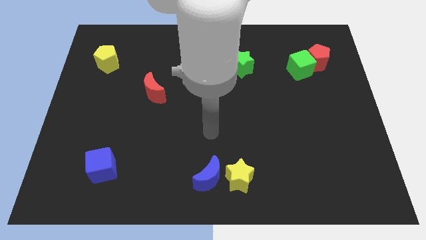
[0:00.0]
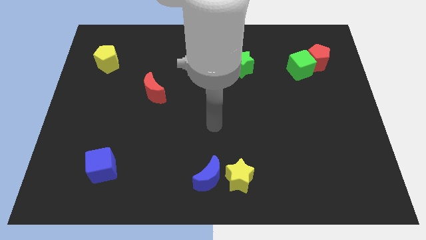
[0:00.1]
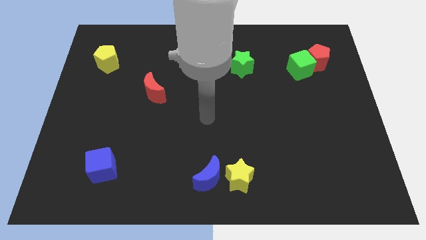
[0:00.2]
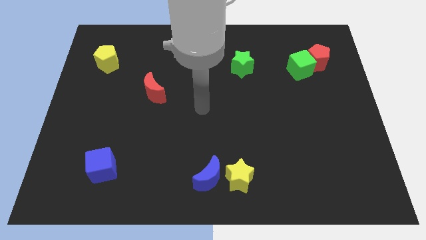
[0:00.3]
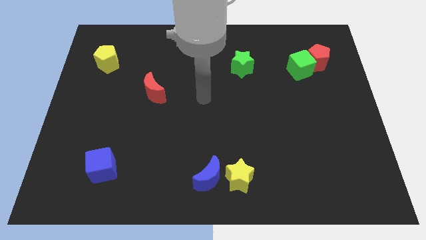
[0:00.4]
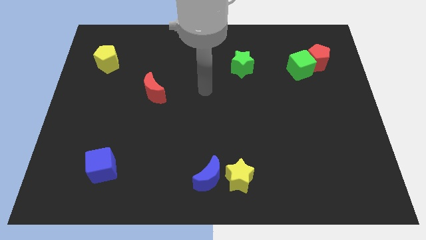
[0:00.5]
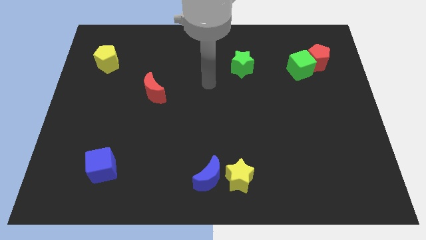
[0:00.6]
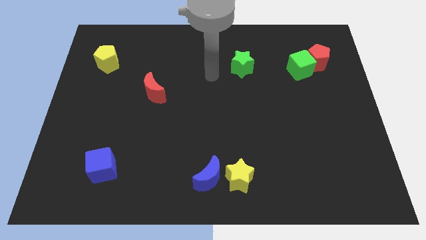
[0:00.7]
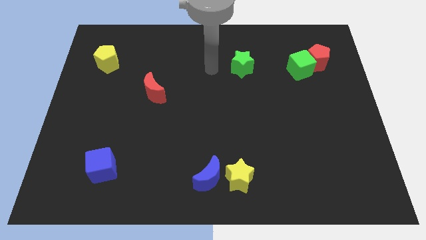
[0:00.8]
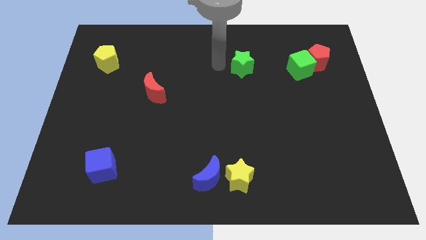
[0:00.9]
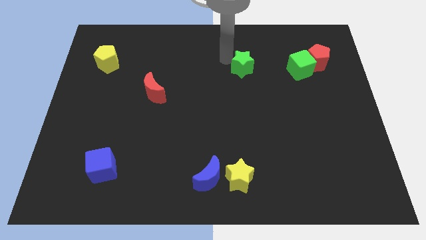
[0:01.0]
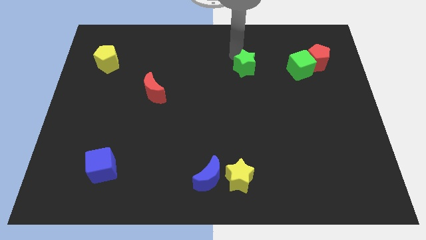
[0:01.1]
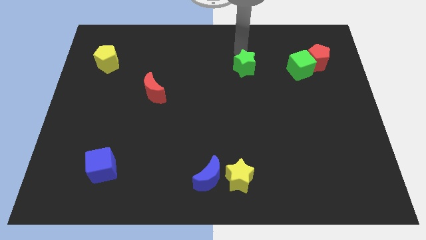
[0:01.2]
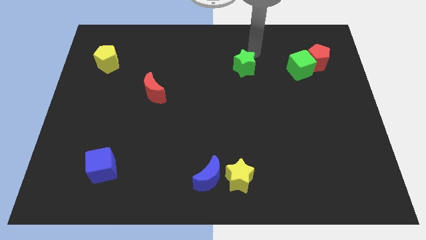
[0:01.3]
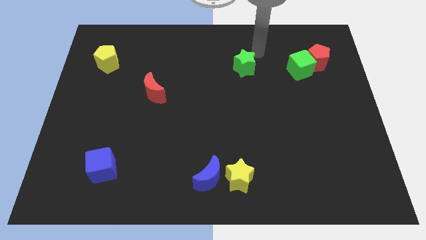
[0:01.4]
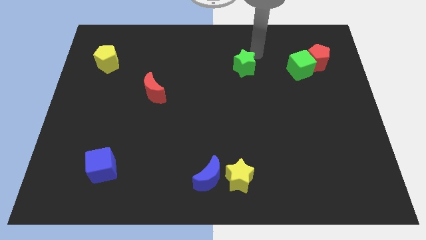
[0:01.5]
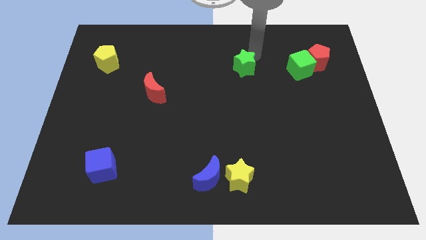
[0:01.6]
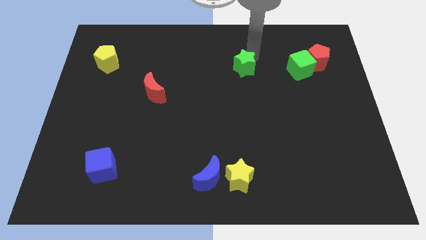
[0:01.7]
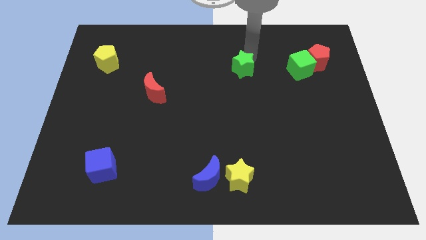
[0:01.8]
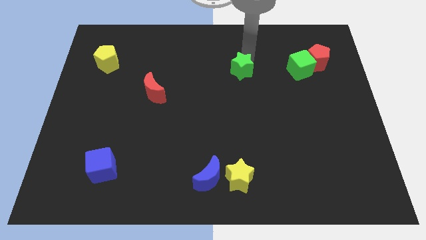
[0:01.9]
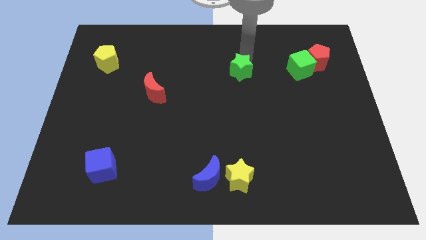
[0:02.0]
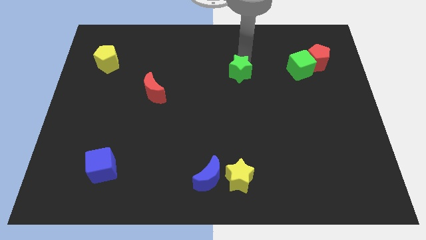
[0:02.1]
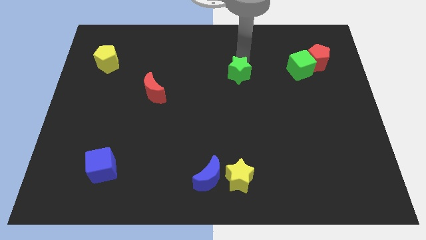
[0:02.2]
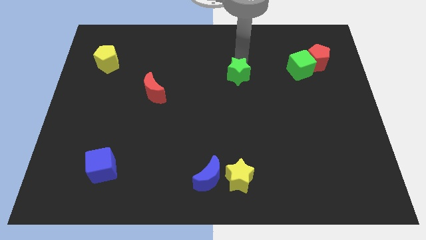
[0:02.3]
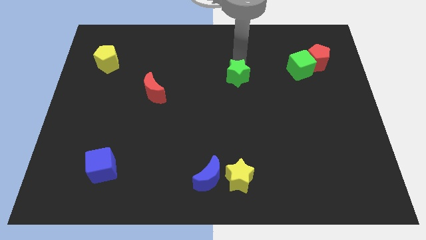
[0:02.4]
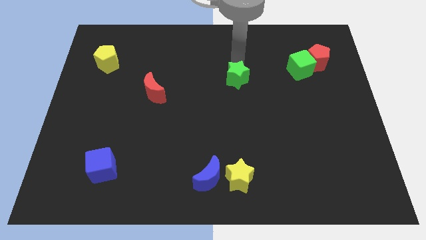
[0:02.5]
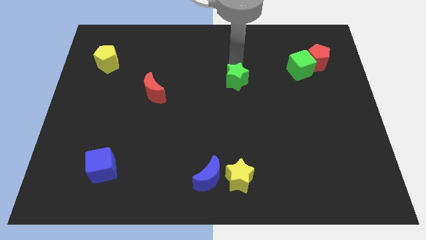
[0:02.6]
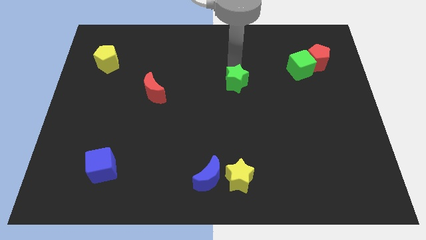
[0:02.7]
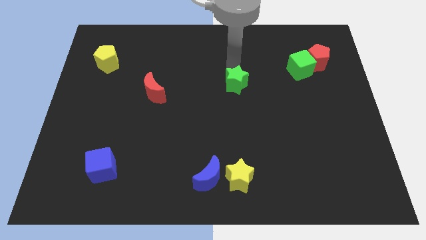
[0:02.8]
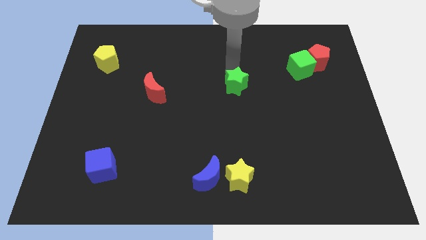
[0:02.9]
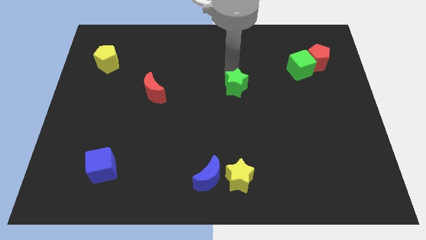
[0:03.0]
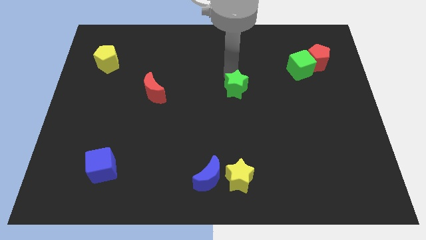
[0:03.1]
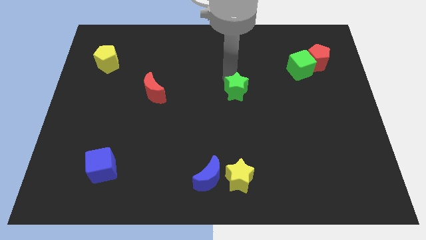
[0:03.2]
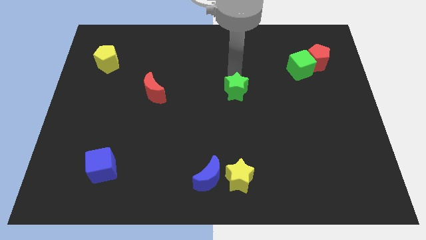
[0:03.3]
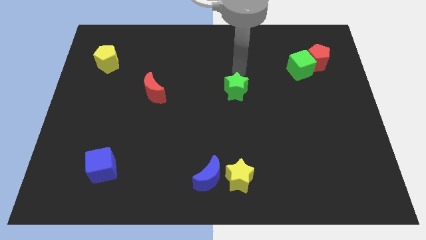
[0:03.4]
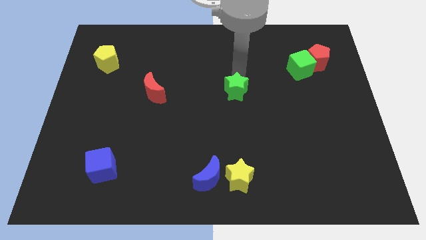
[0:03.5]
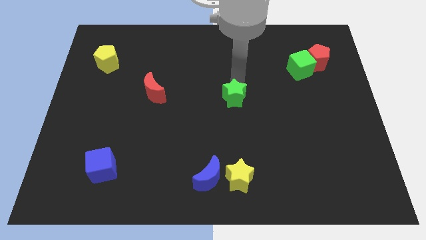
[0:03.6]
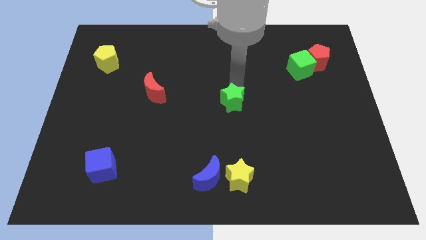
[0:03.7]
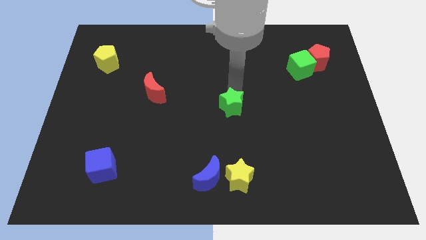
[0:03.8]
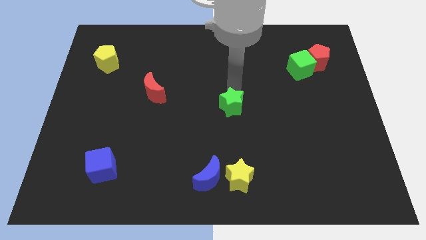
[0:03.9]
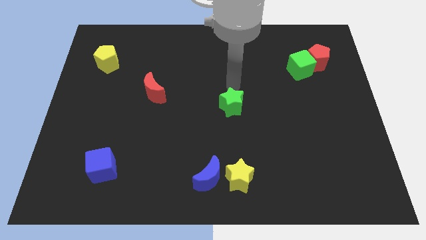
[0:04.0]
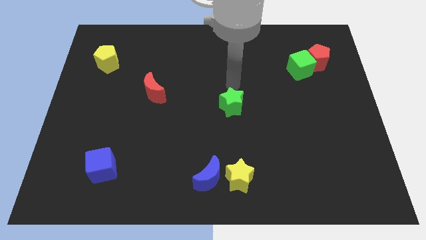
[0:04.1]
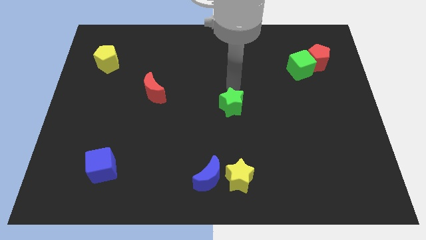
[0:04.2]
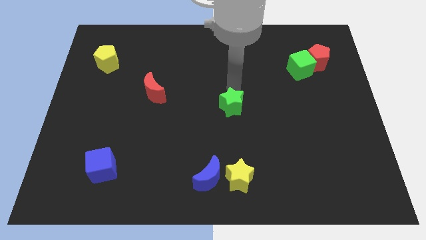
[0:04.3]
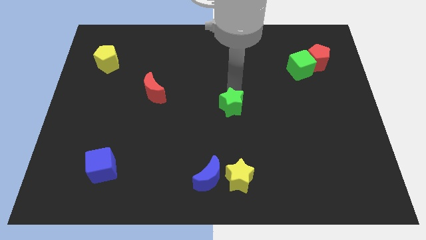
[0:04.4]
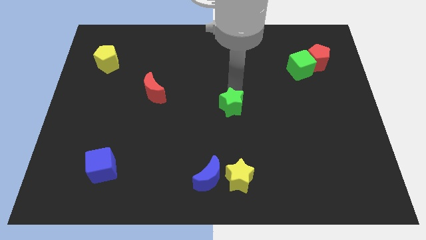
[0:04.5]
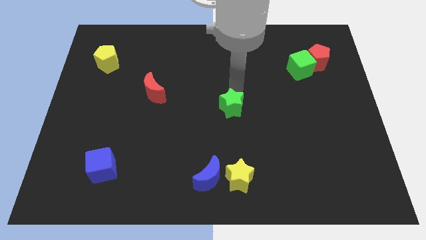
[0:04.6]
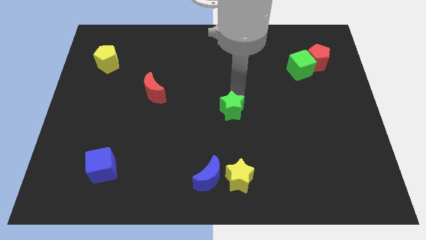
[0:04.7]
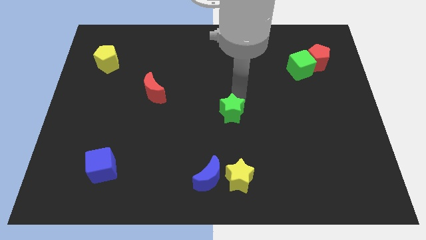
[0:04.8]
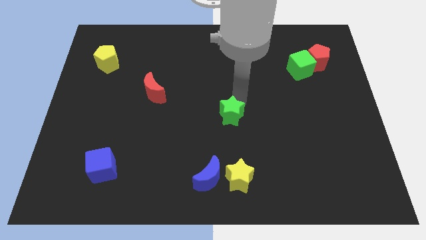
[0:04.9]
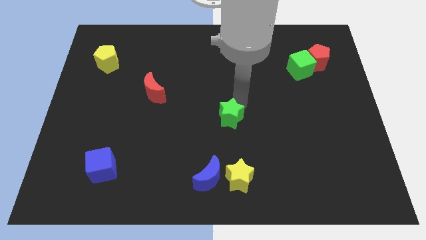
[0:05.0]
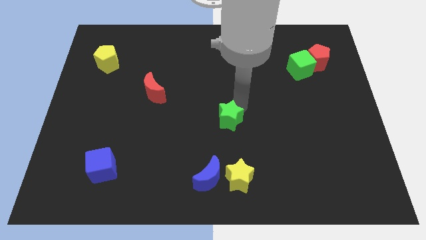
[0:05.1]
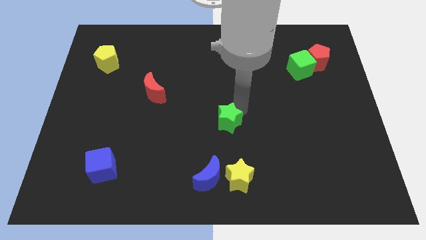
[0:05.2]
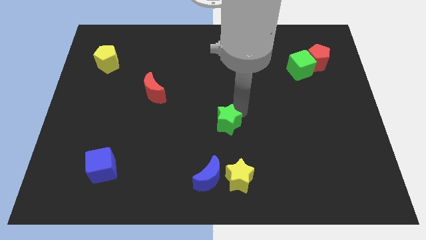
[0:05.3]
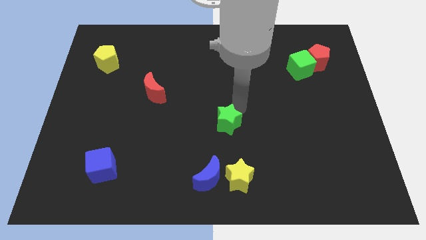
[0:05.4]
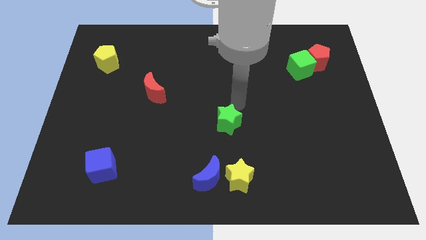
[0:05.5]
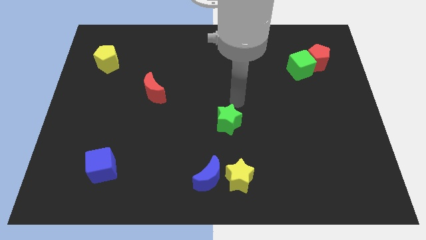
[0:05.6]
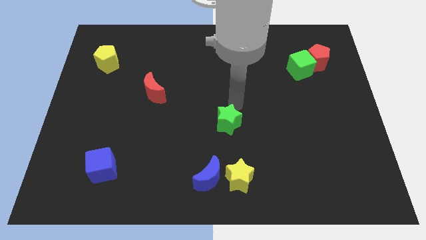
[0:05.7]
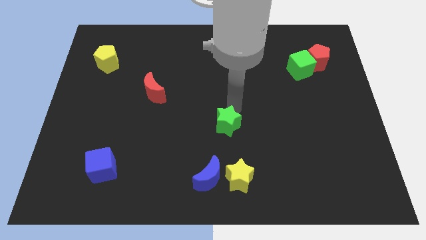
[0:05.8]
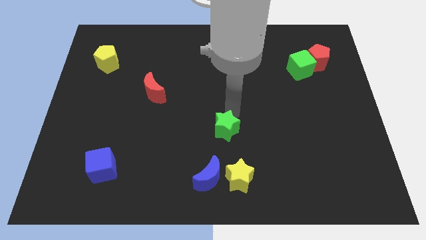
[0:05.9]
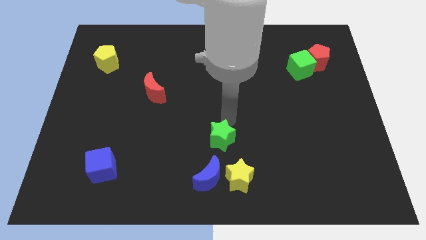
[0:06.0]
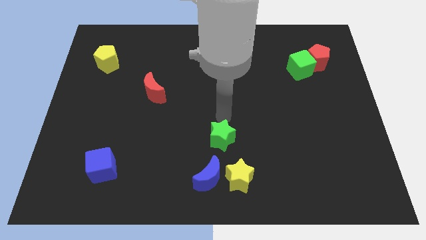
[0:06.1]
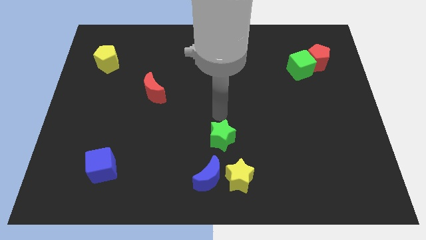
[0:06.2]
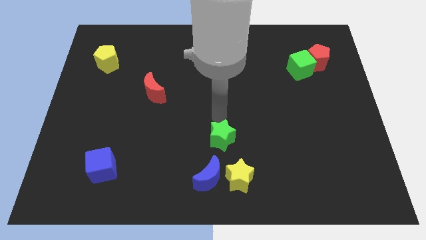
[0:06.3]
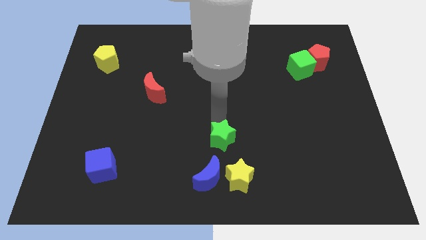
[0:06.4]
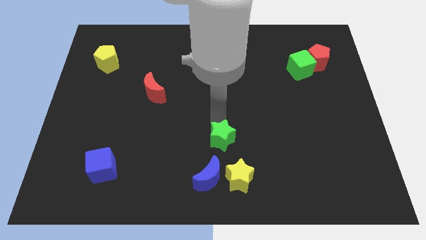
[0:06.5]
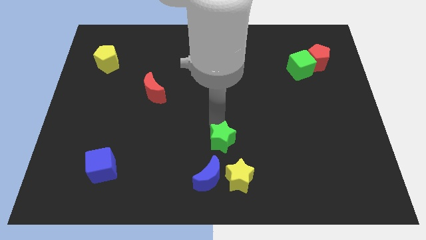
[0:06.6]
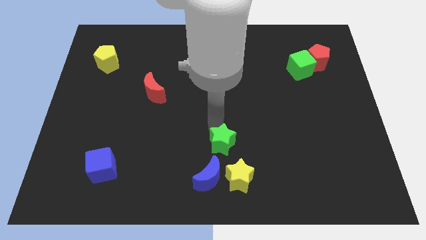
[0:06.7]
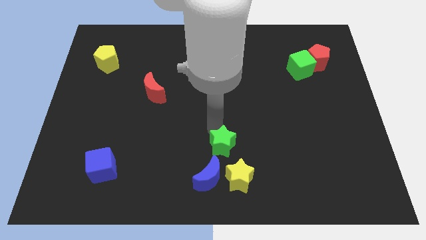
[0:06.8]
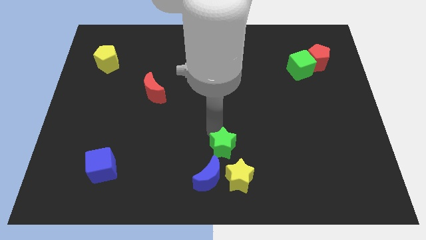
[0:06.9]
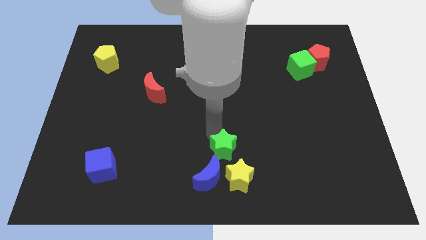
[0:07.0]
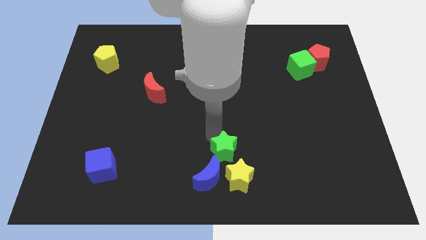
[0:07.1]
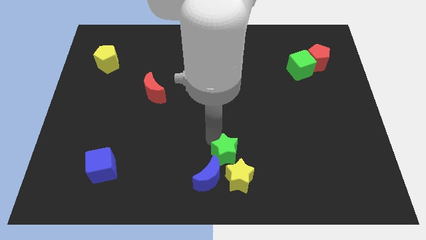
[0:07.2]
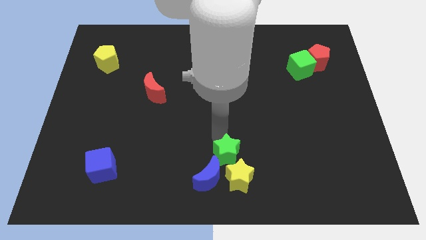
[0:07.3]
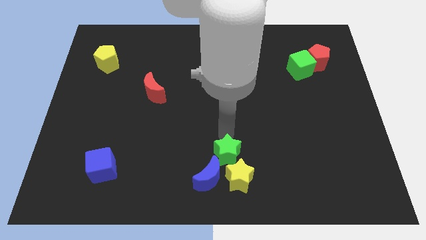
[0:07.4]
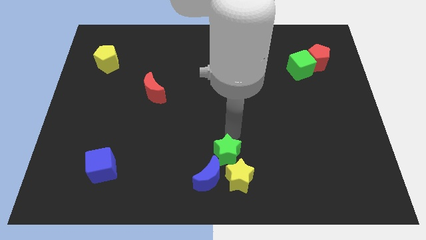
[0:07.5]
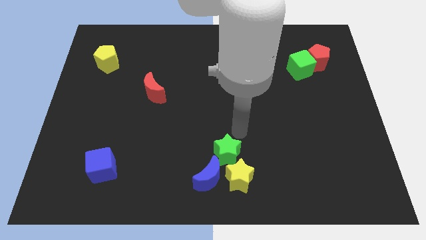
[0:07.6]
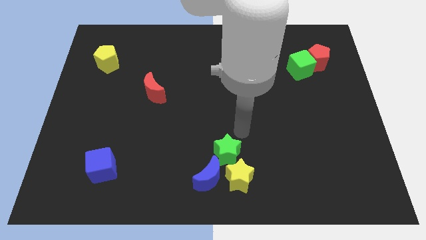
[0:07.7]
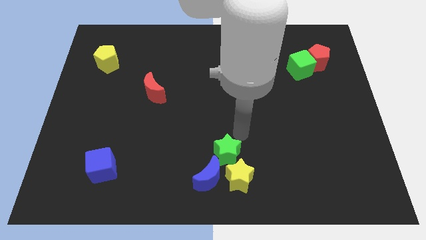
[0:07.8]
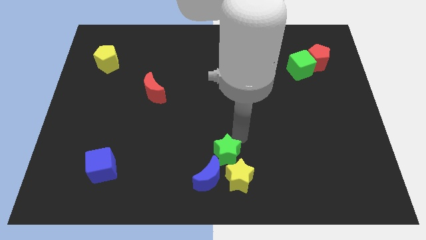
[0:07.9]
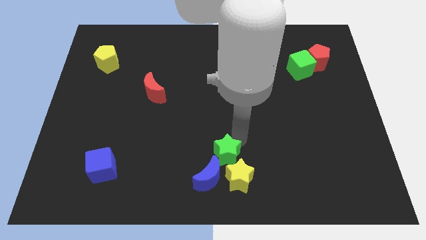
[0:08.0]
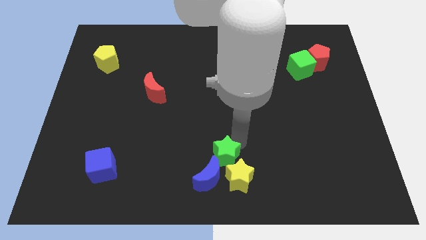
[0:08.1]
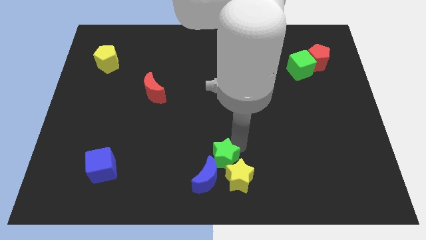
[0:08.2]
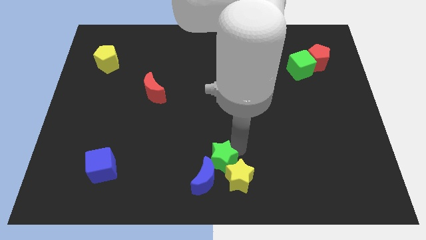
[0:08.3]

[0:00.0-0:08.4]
push the green star close to the blue moon
